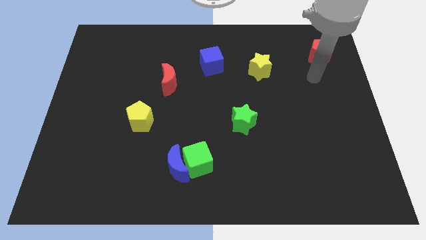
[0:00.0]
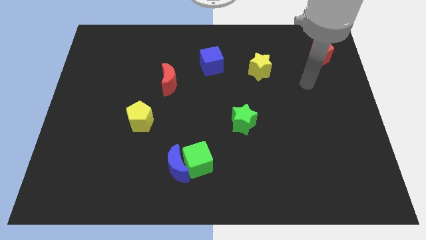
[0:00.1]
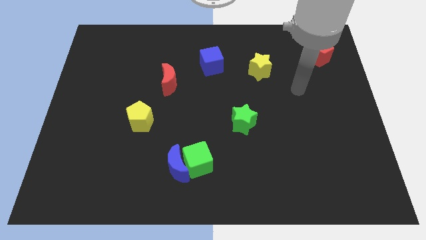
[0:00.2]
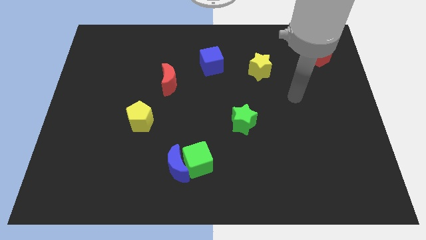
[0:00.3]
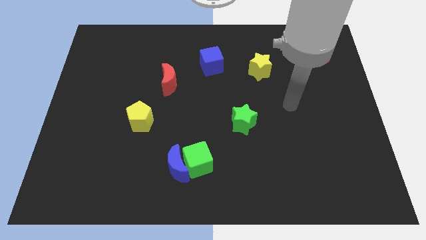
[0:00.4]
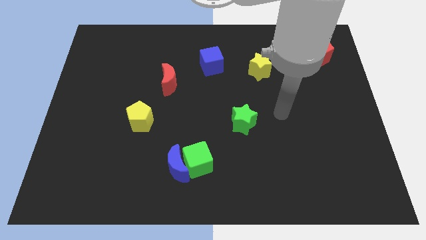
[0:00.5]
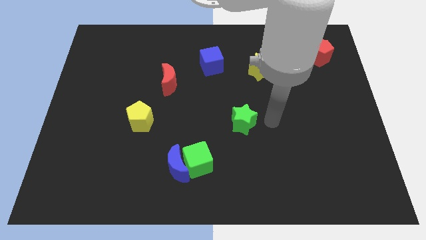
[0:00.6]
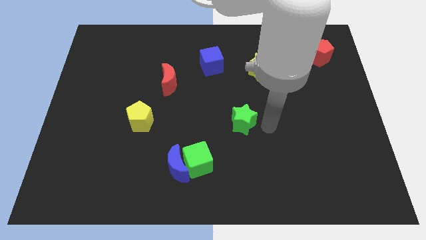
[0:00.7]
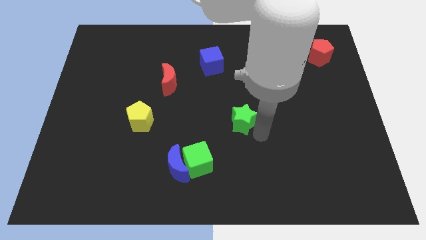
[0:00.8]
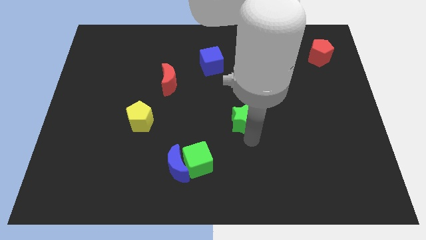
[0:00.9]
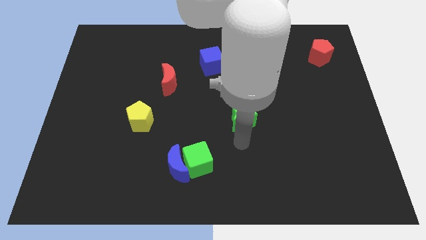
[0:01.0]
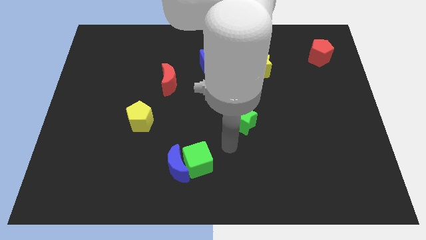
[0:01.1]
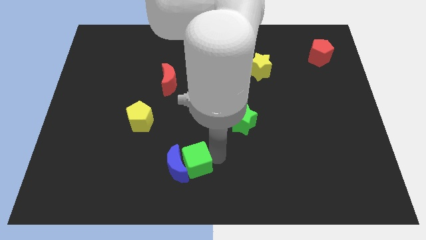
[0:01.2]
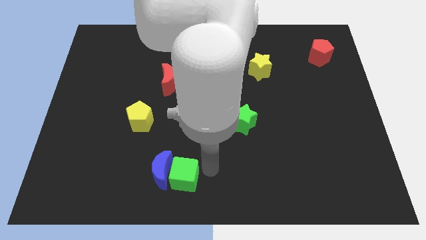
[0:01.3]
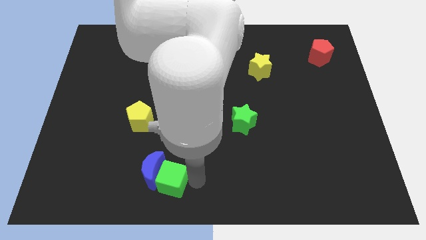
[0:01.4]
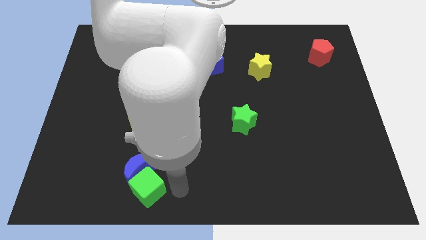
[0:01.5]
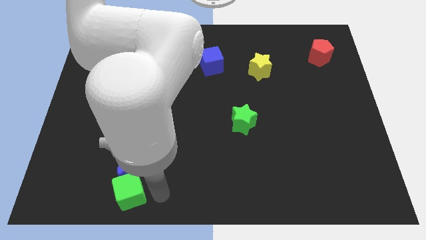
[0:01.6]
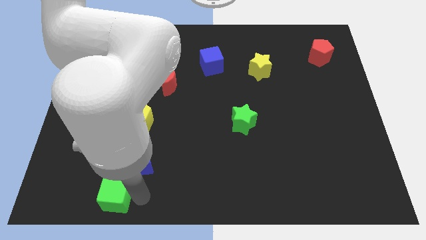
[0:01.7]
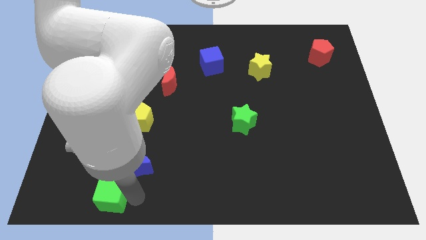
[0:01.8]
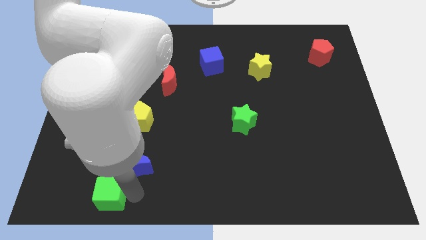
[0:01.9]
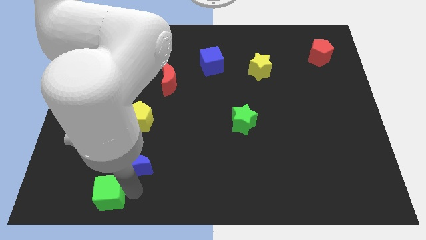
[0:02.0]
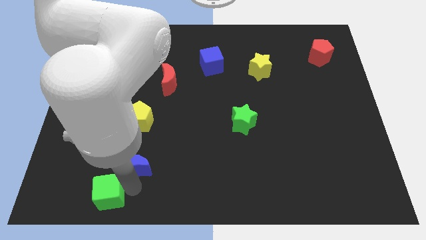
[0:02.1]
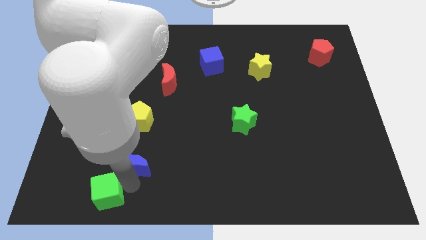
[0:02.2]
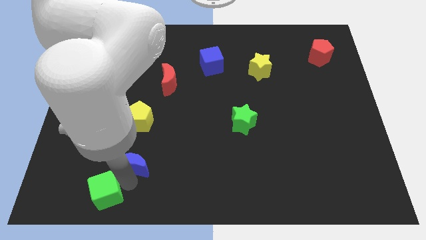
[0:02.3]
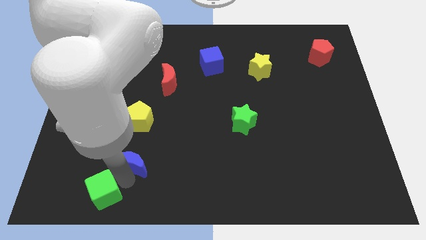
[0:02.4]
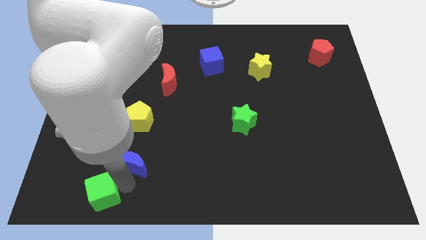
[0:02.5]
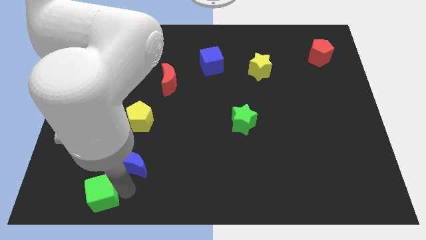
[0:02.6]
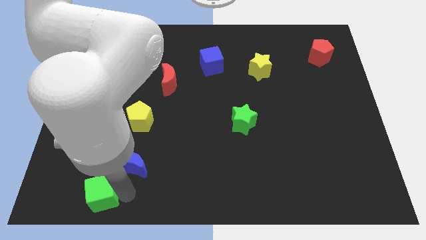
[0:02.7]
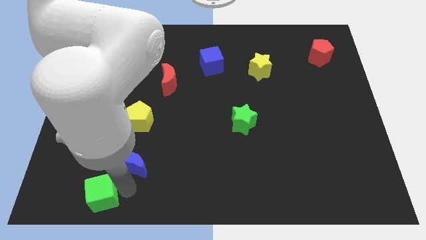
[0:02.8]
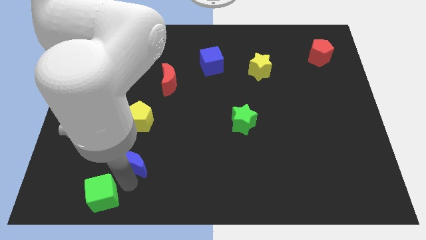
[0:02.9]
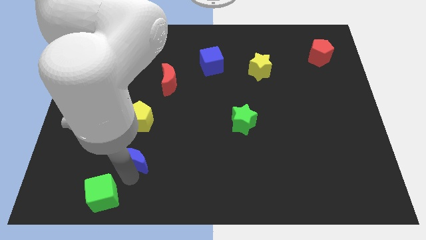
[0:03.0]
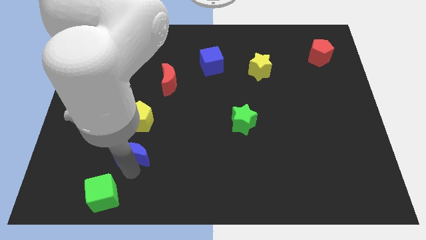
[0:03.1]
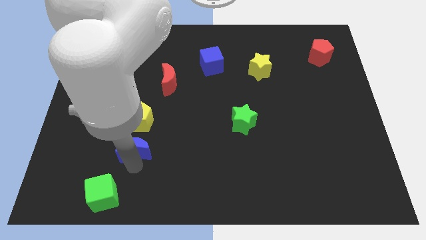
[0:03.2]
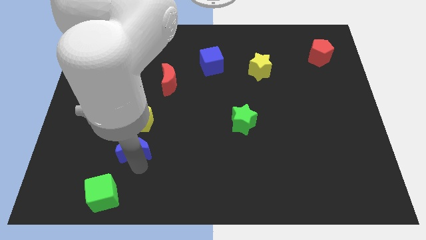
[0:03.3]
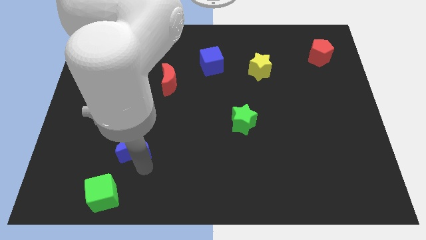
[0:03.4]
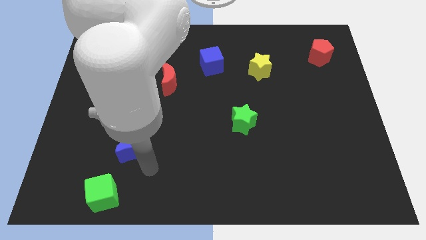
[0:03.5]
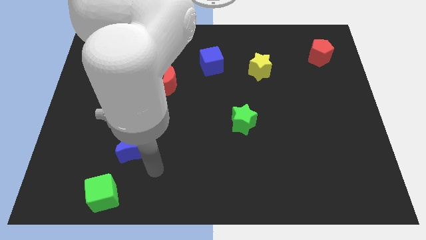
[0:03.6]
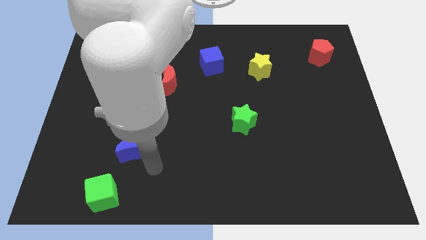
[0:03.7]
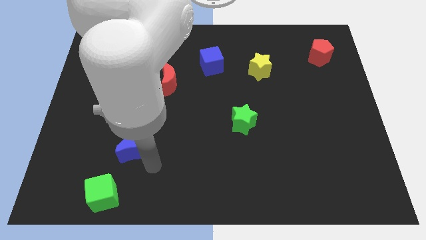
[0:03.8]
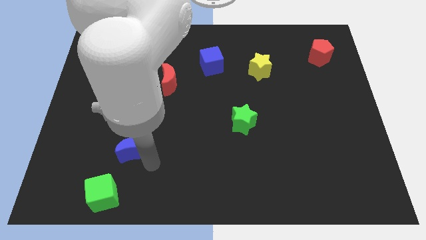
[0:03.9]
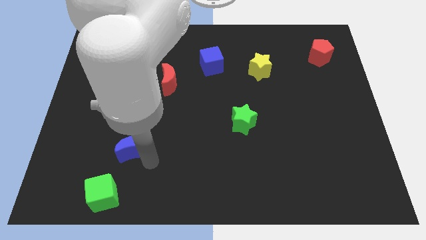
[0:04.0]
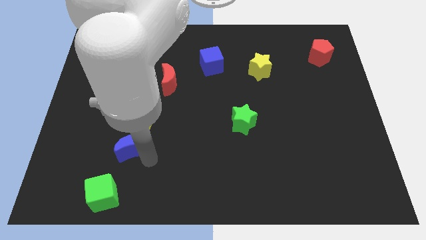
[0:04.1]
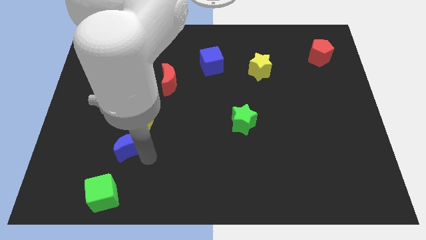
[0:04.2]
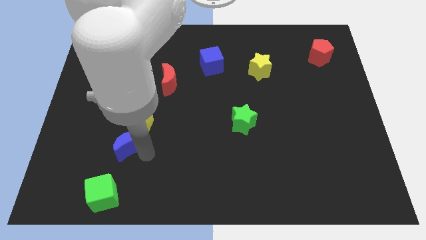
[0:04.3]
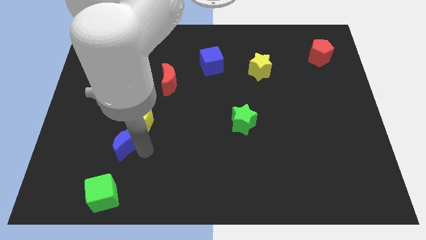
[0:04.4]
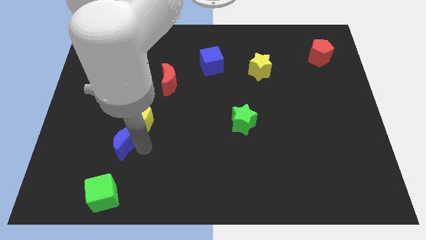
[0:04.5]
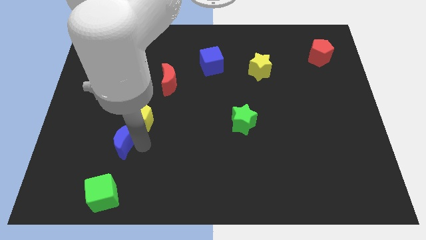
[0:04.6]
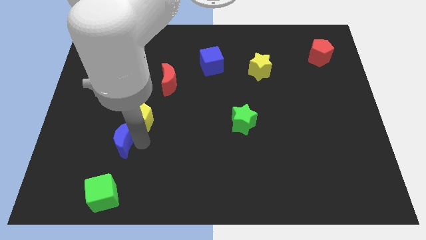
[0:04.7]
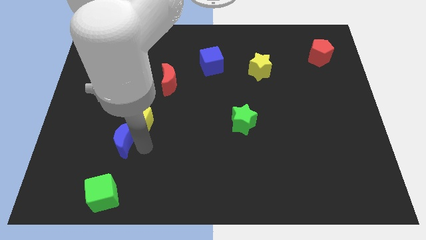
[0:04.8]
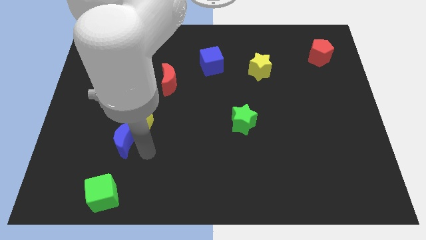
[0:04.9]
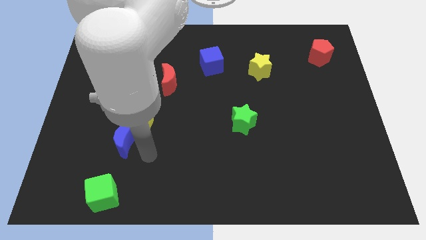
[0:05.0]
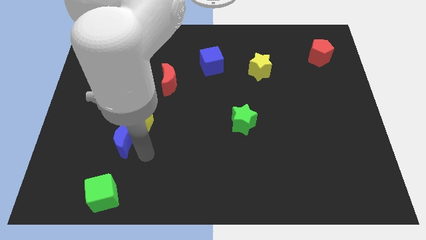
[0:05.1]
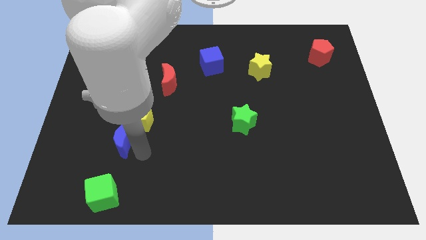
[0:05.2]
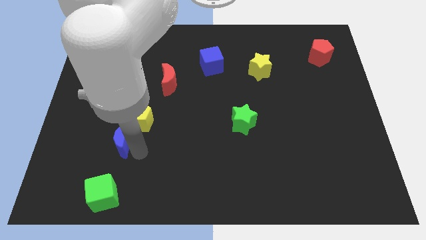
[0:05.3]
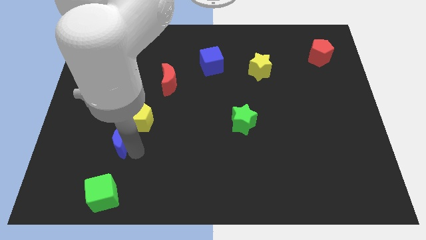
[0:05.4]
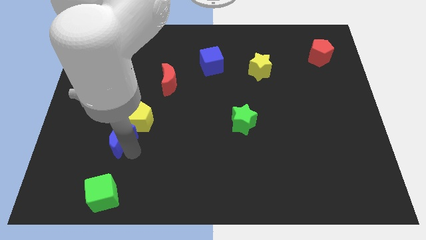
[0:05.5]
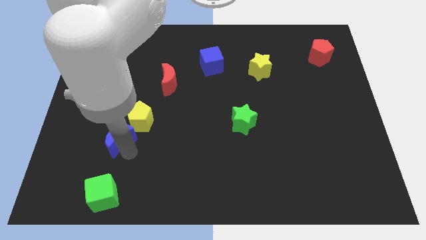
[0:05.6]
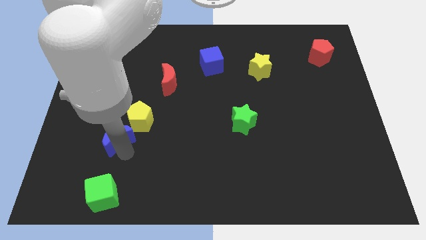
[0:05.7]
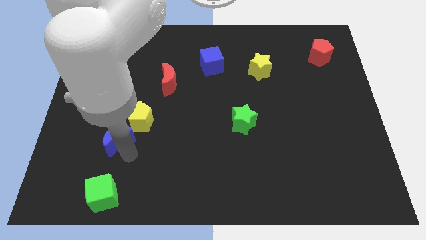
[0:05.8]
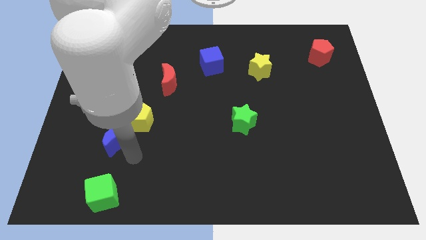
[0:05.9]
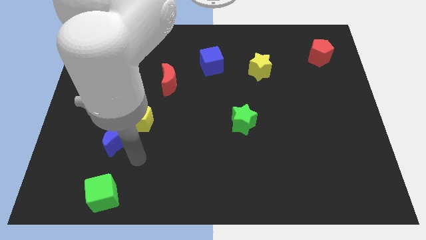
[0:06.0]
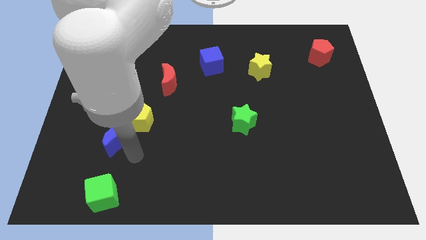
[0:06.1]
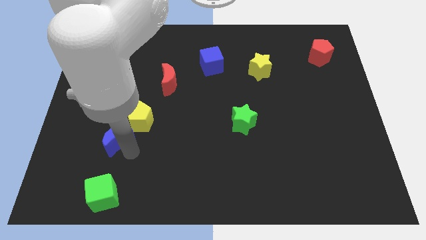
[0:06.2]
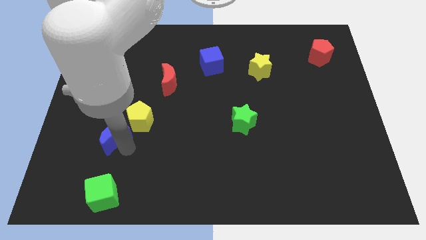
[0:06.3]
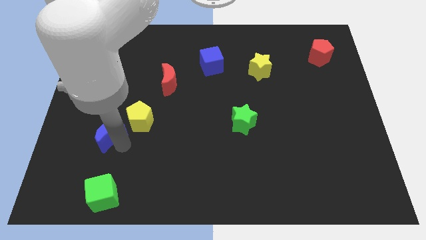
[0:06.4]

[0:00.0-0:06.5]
move the blue moon to the left of the yellow pentagon

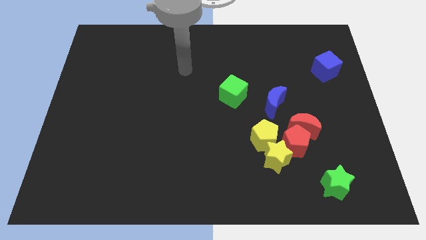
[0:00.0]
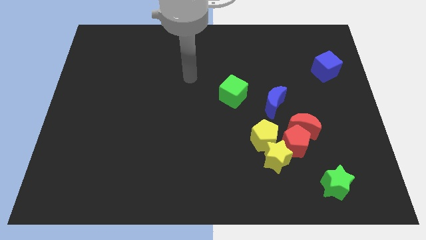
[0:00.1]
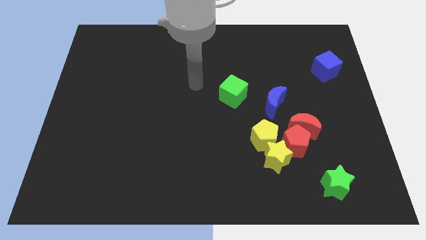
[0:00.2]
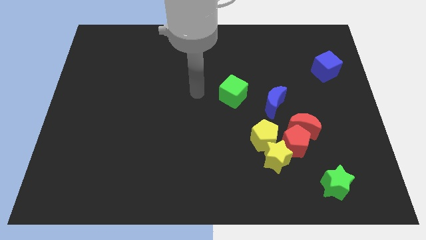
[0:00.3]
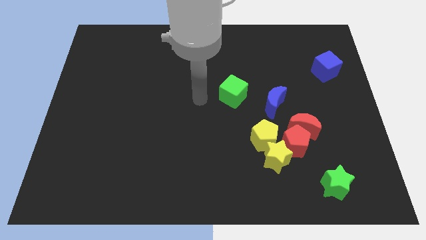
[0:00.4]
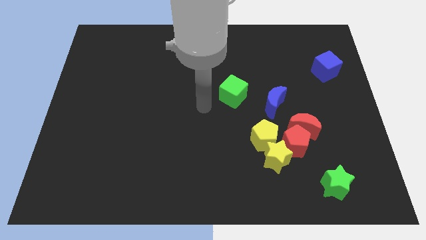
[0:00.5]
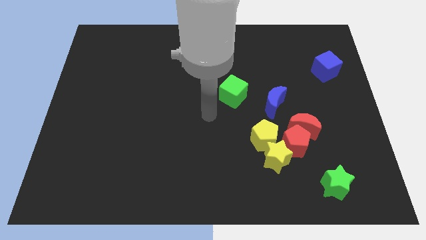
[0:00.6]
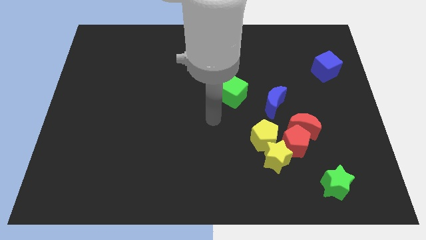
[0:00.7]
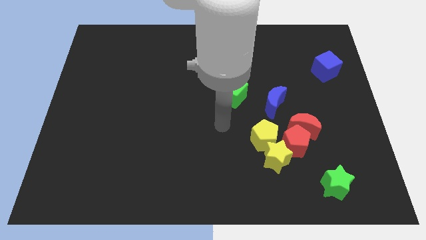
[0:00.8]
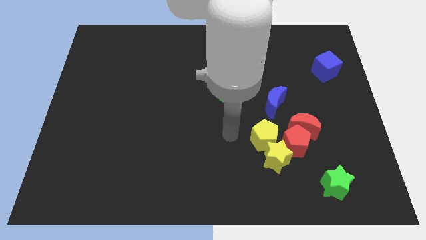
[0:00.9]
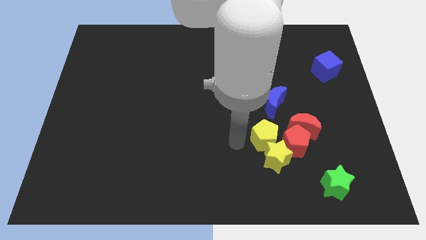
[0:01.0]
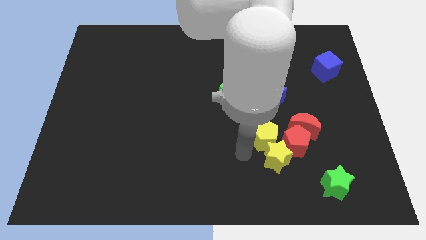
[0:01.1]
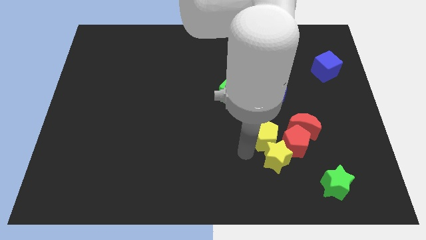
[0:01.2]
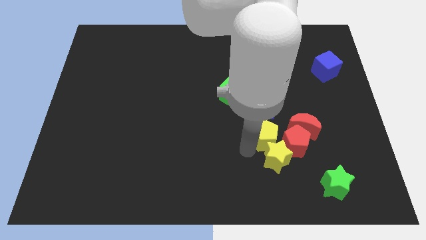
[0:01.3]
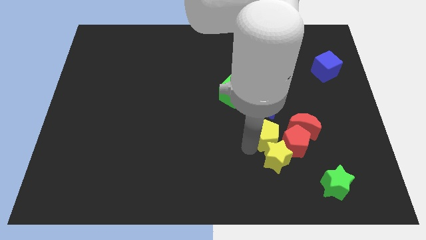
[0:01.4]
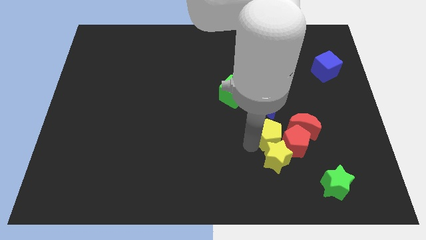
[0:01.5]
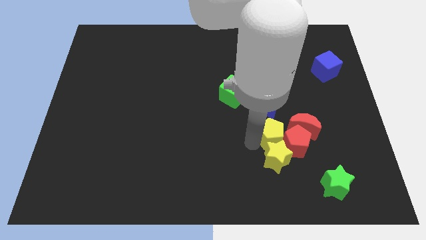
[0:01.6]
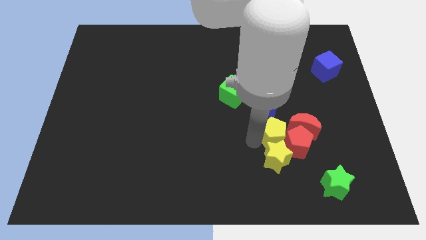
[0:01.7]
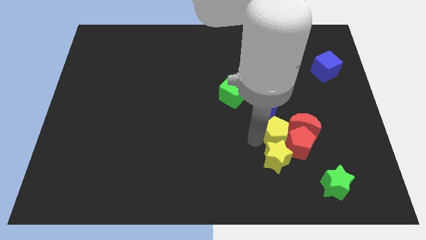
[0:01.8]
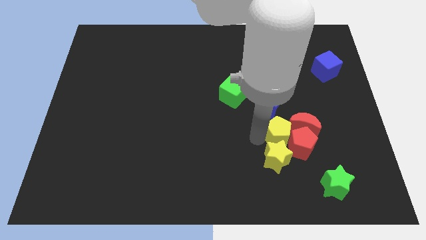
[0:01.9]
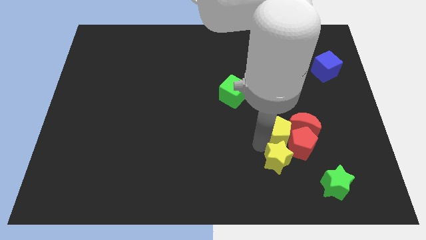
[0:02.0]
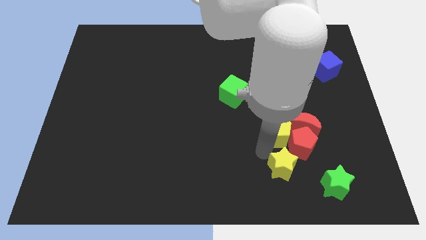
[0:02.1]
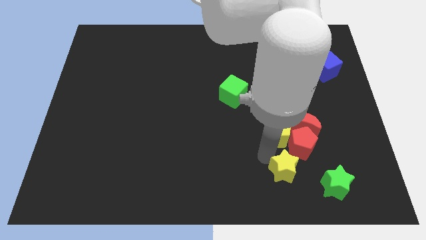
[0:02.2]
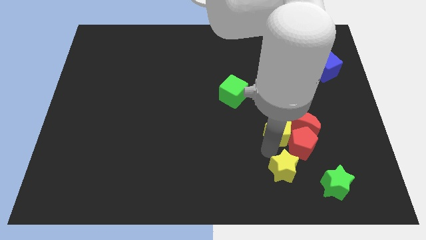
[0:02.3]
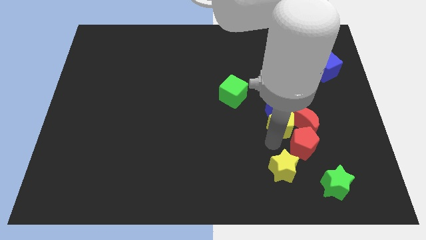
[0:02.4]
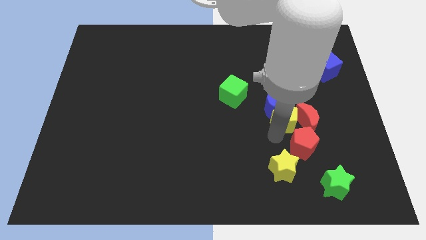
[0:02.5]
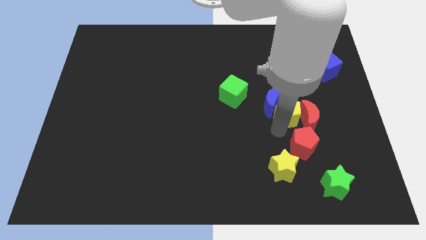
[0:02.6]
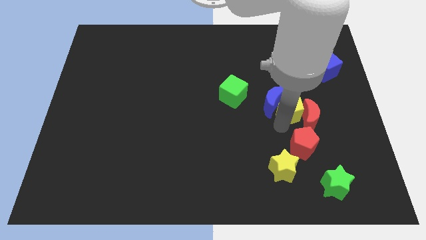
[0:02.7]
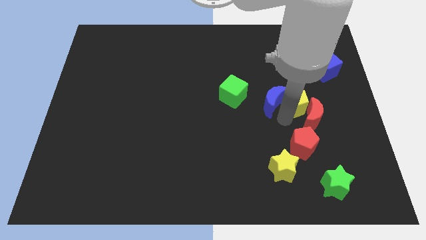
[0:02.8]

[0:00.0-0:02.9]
push the yellow pentagon above the red moon
